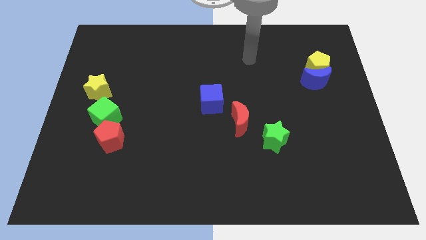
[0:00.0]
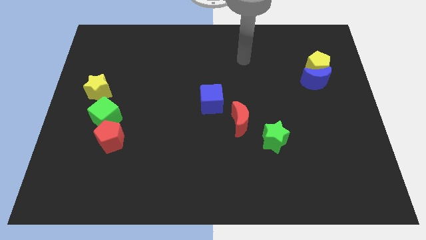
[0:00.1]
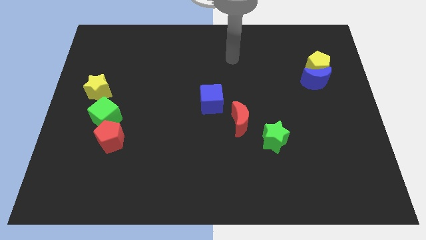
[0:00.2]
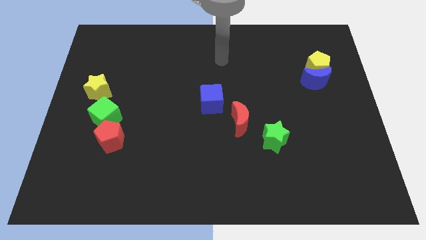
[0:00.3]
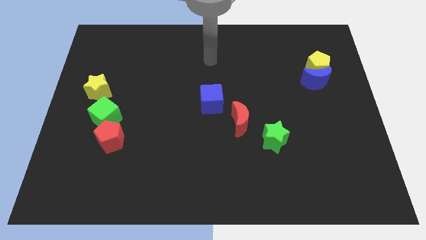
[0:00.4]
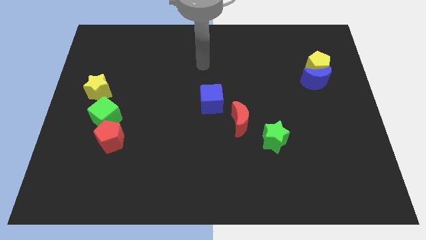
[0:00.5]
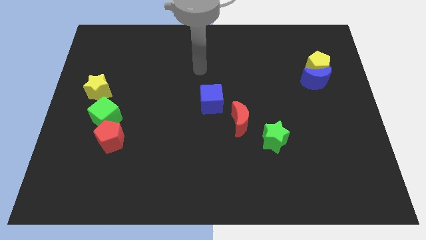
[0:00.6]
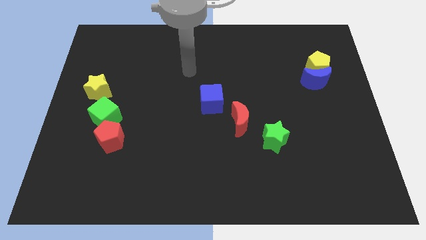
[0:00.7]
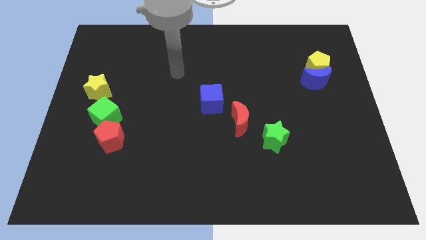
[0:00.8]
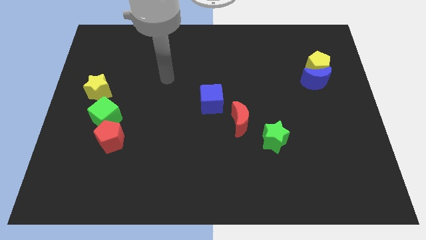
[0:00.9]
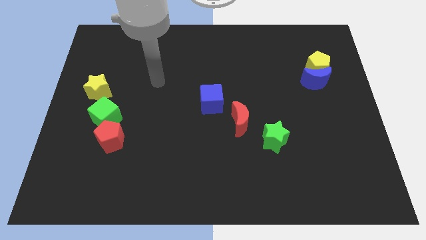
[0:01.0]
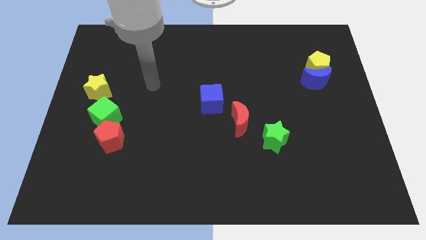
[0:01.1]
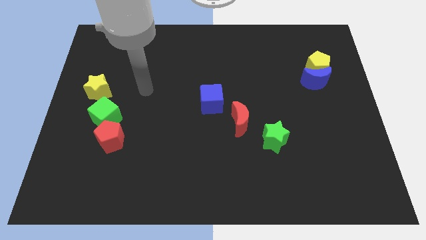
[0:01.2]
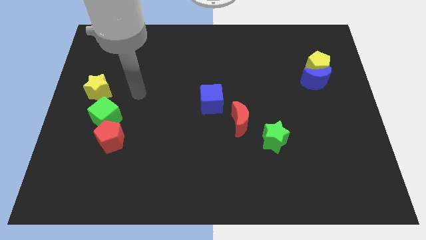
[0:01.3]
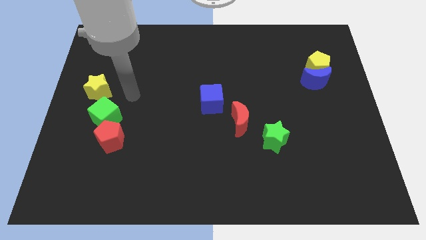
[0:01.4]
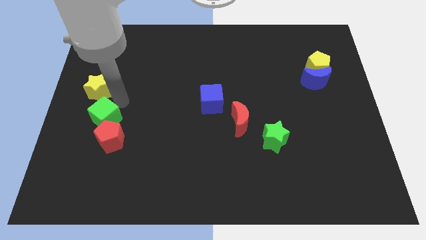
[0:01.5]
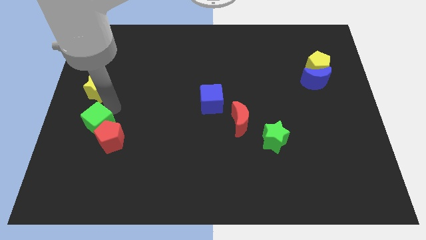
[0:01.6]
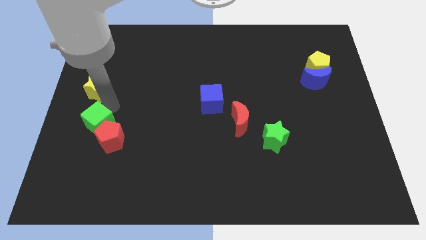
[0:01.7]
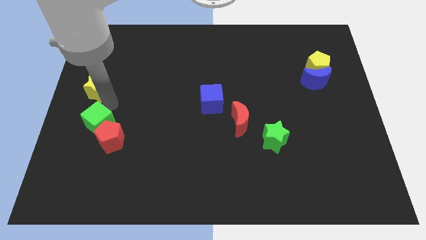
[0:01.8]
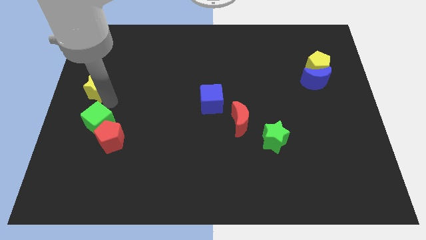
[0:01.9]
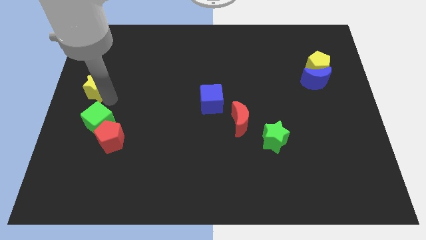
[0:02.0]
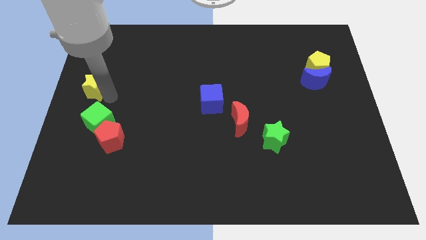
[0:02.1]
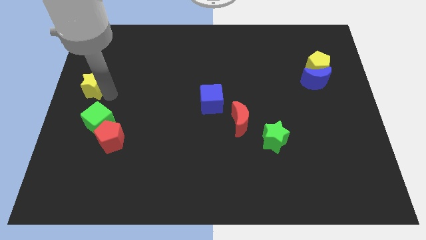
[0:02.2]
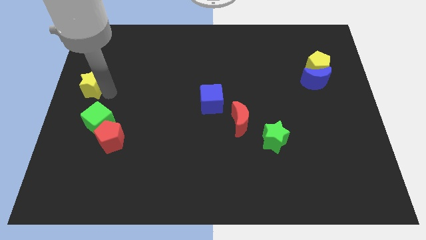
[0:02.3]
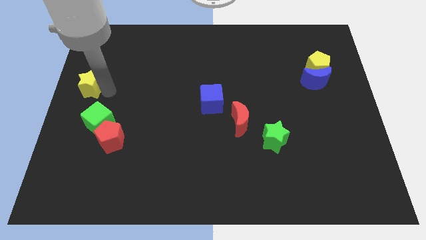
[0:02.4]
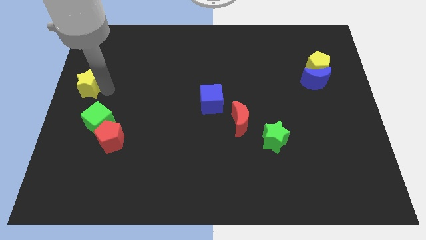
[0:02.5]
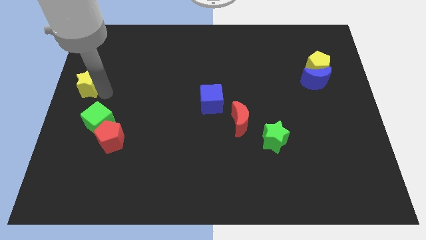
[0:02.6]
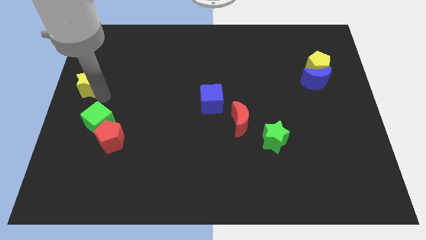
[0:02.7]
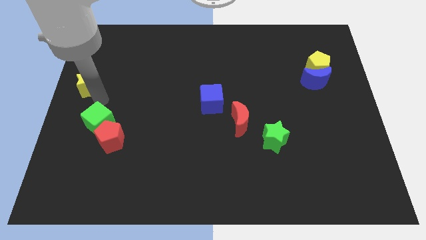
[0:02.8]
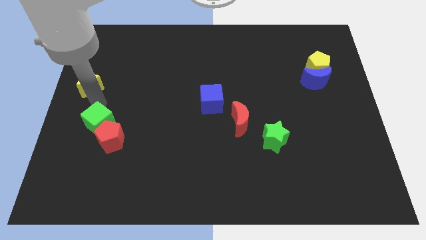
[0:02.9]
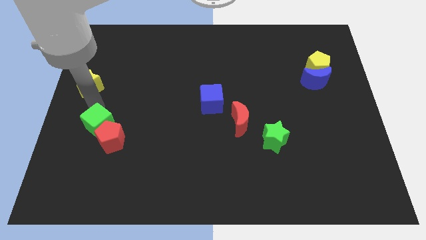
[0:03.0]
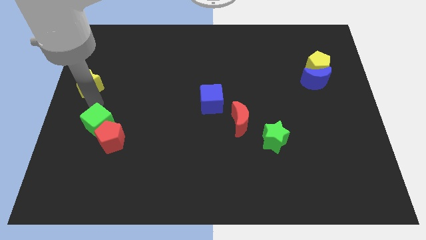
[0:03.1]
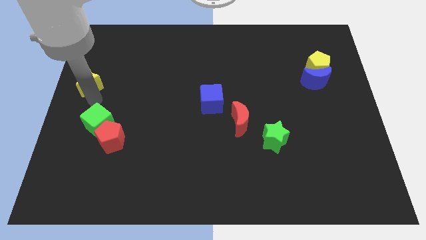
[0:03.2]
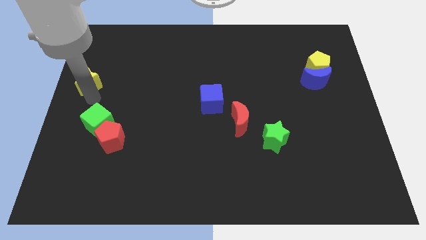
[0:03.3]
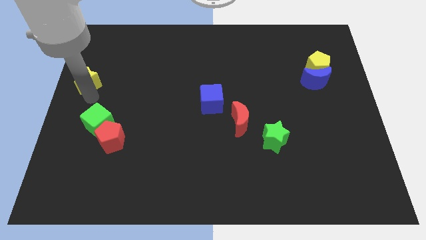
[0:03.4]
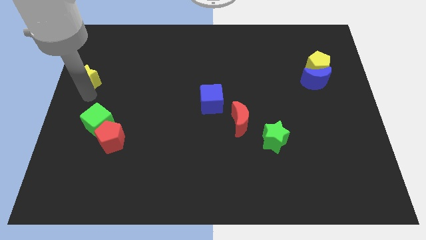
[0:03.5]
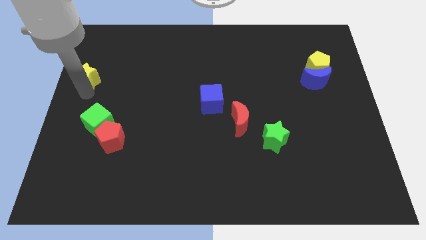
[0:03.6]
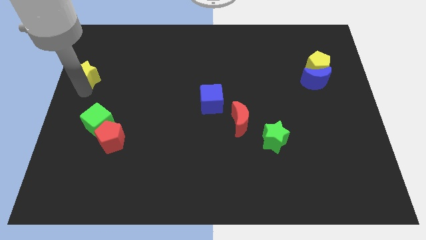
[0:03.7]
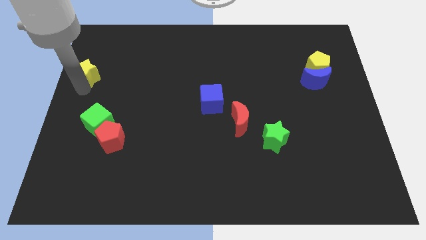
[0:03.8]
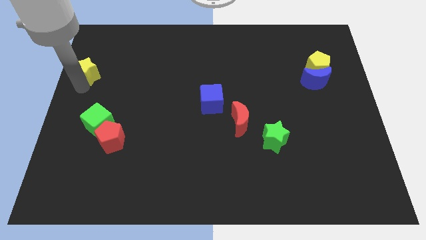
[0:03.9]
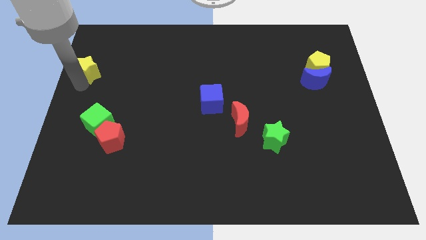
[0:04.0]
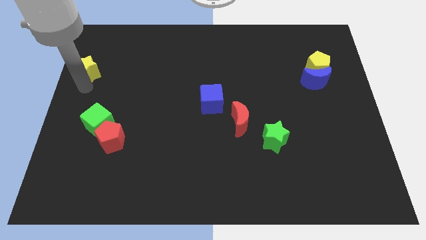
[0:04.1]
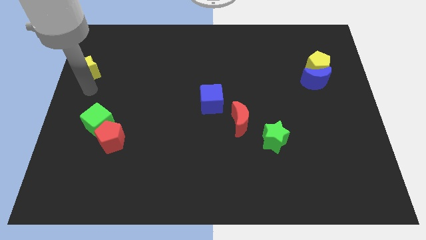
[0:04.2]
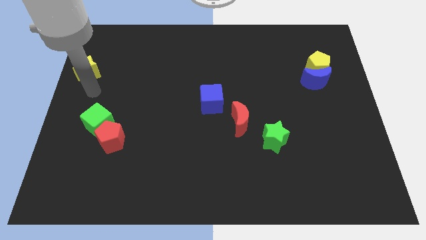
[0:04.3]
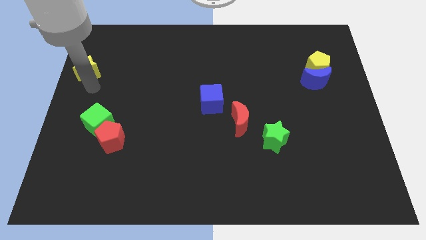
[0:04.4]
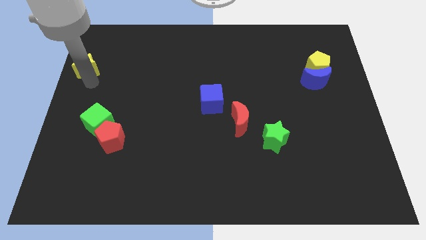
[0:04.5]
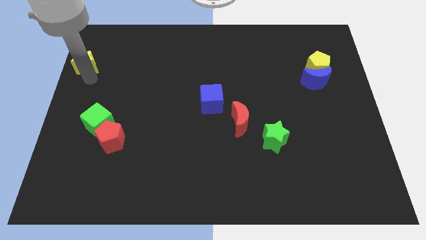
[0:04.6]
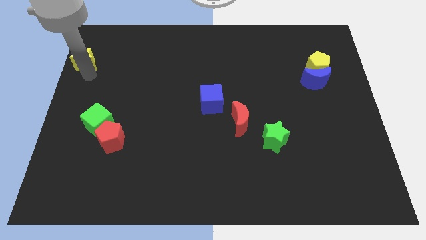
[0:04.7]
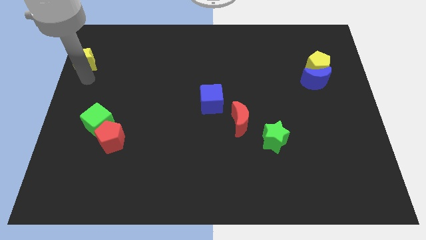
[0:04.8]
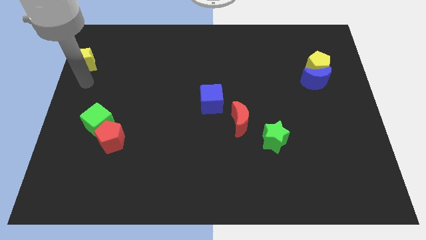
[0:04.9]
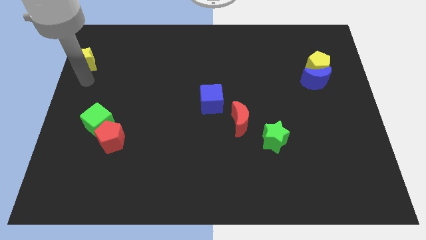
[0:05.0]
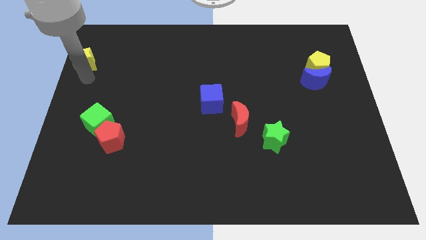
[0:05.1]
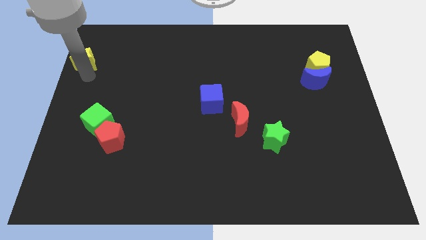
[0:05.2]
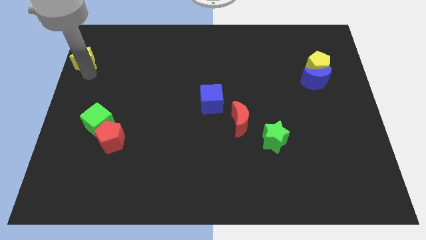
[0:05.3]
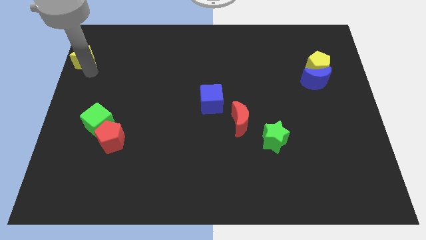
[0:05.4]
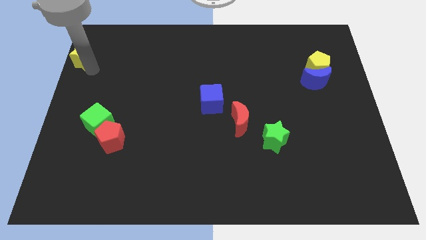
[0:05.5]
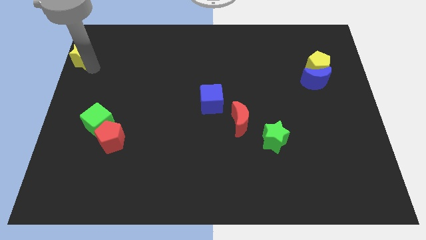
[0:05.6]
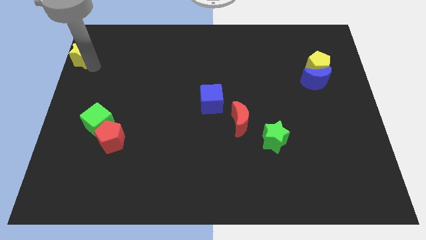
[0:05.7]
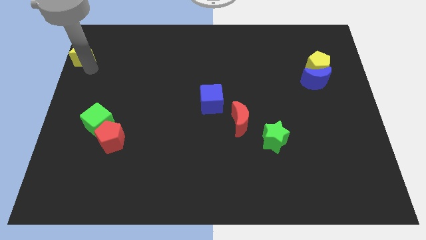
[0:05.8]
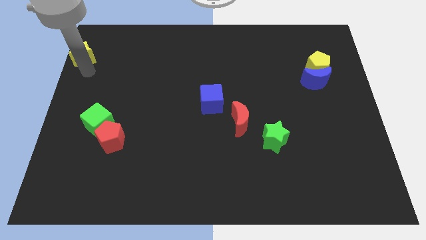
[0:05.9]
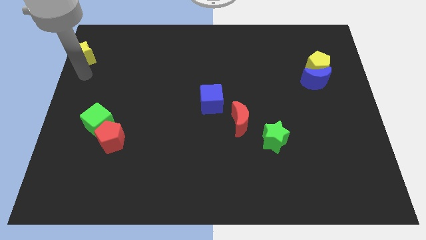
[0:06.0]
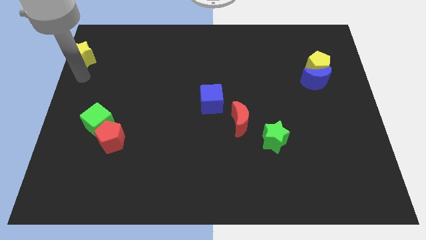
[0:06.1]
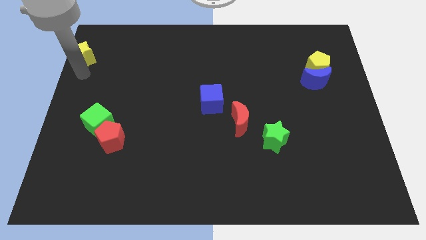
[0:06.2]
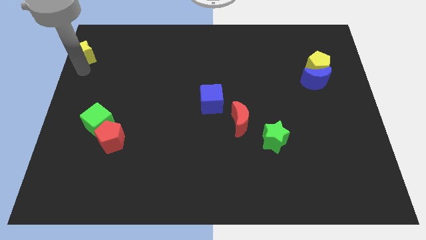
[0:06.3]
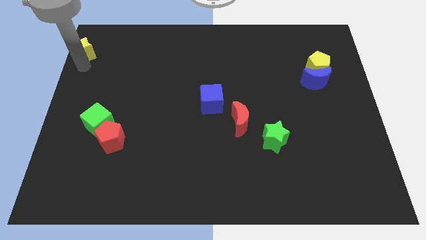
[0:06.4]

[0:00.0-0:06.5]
push the yellow star to the upper left corner
